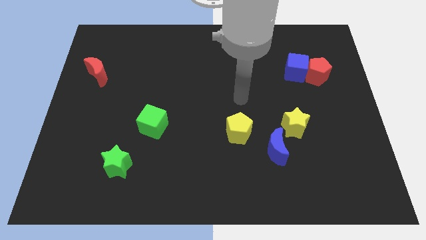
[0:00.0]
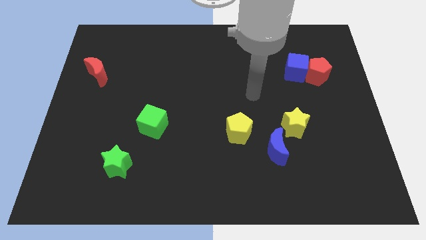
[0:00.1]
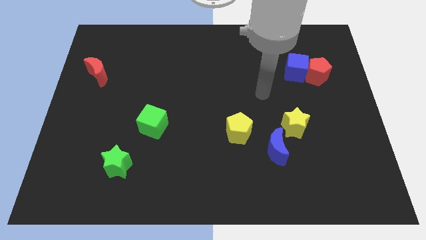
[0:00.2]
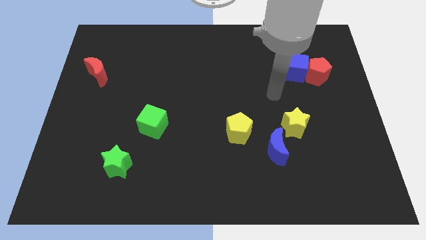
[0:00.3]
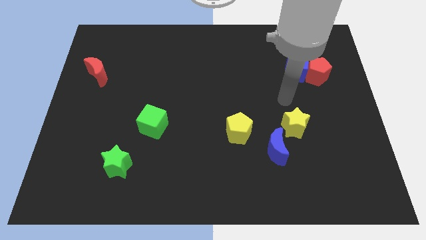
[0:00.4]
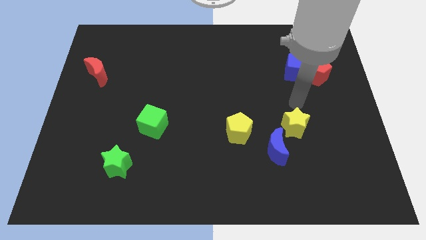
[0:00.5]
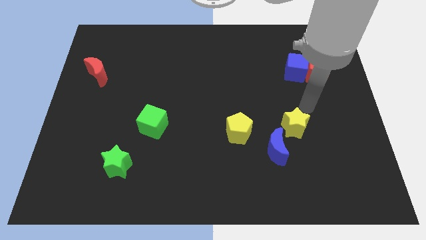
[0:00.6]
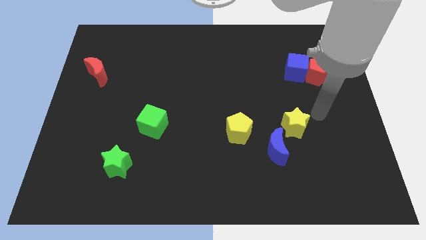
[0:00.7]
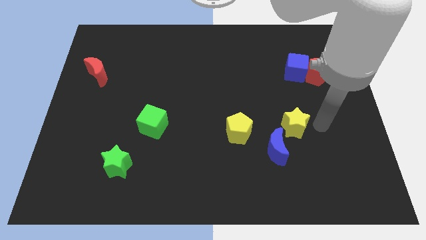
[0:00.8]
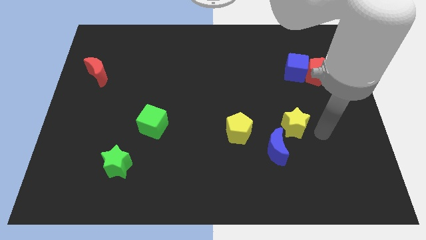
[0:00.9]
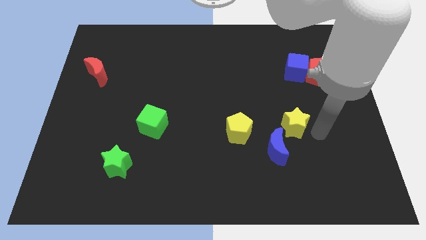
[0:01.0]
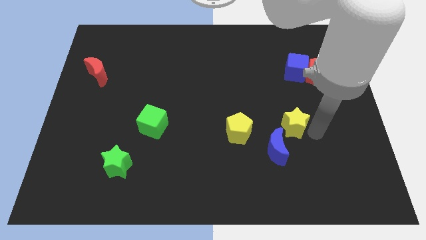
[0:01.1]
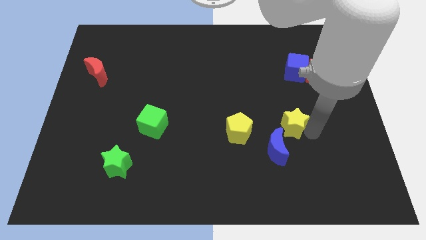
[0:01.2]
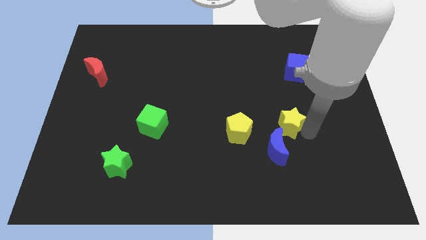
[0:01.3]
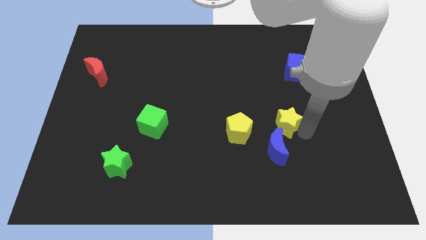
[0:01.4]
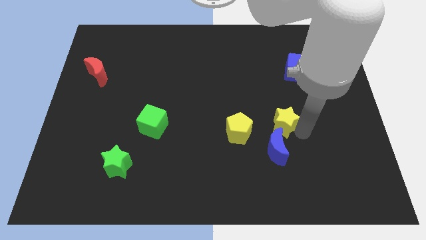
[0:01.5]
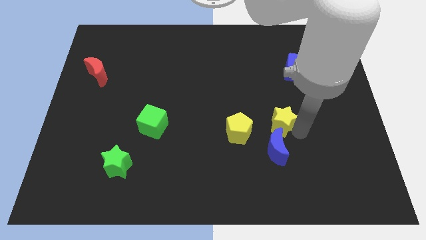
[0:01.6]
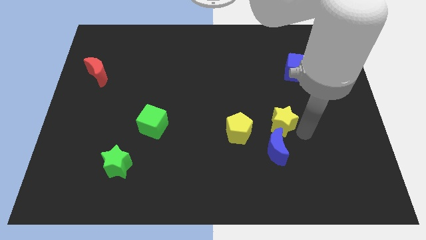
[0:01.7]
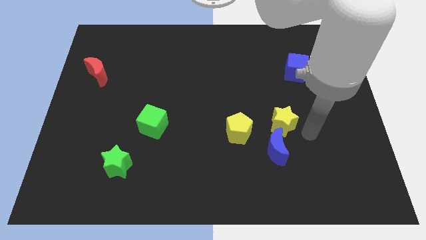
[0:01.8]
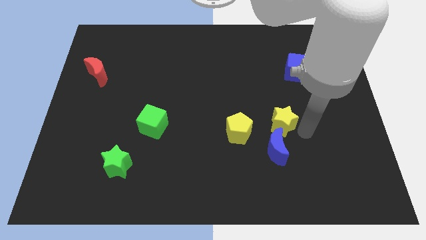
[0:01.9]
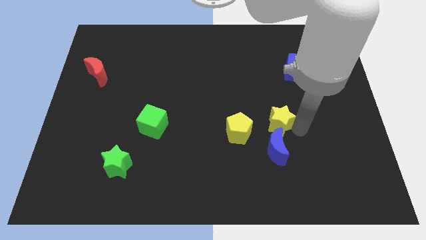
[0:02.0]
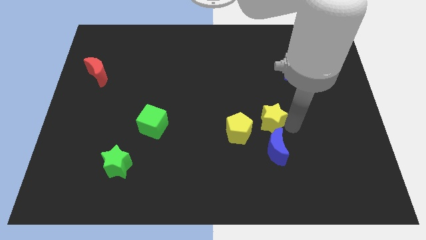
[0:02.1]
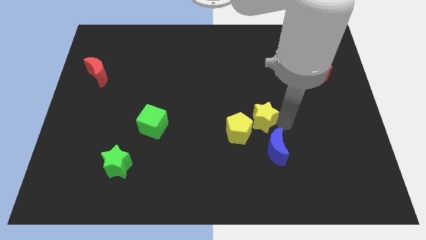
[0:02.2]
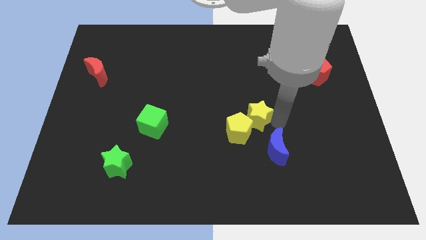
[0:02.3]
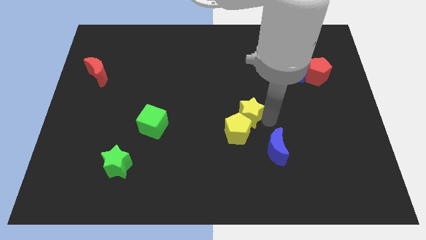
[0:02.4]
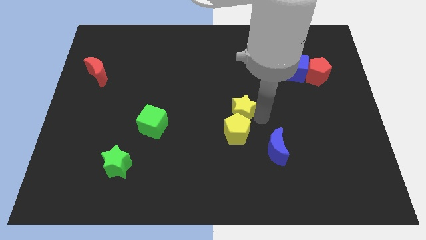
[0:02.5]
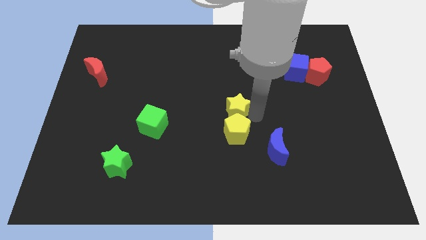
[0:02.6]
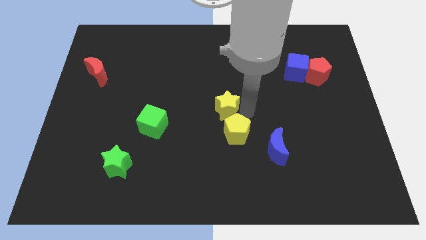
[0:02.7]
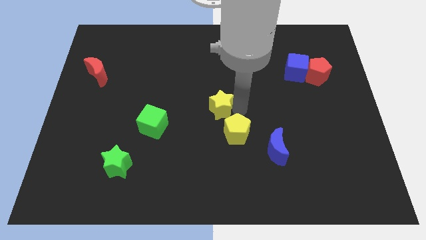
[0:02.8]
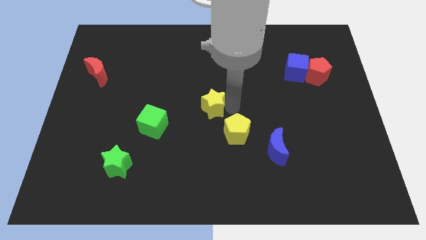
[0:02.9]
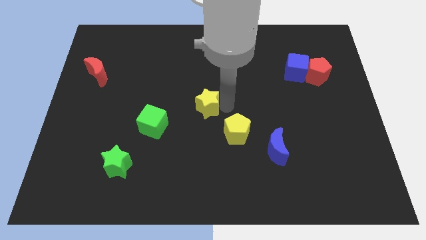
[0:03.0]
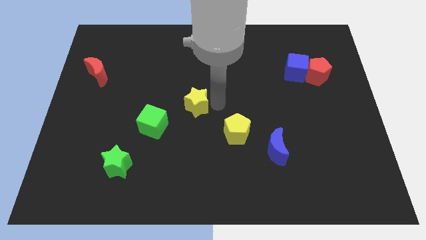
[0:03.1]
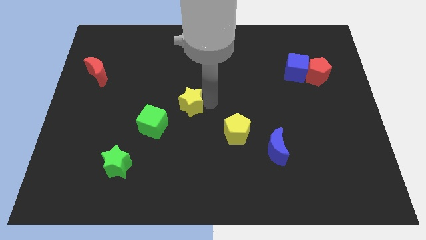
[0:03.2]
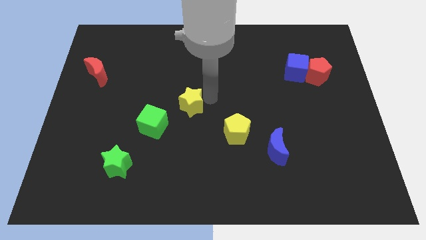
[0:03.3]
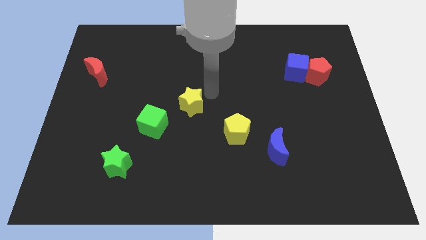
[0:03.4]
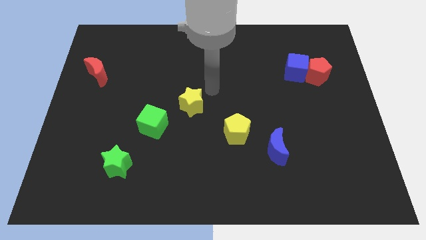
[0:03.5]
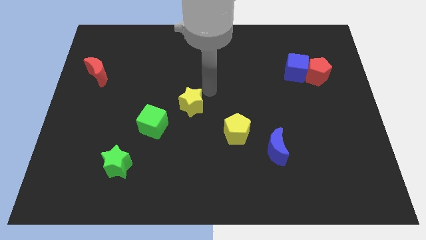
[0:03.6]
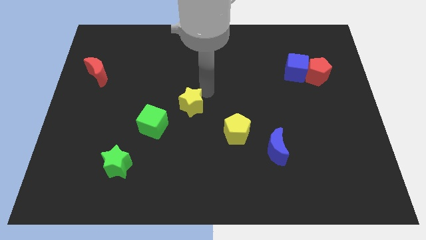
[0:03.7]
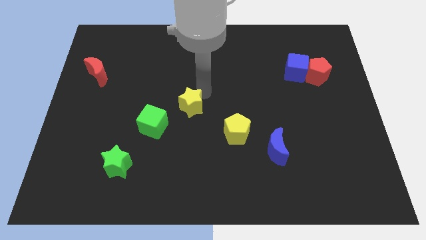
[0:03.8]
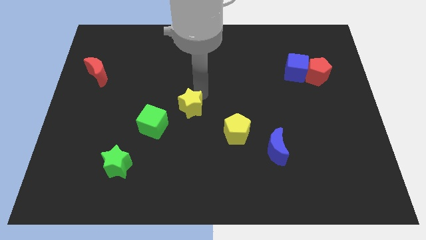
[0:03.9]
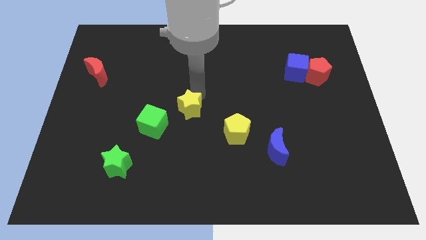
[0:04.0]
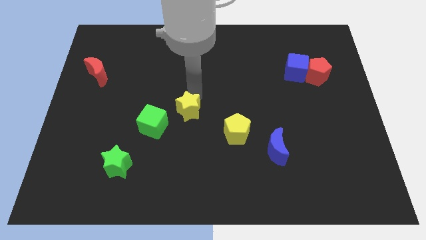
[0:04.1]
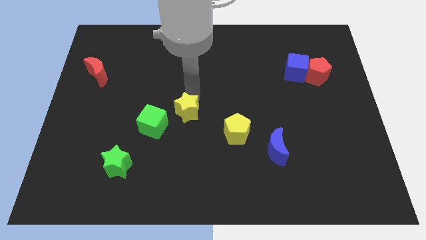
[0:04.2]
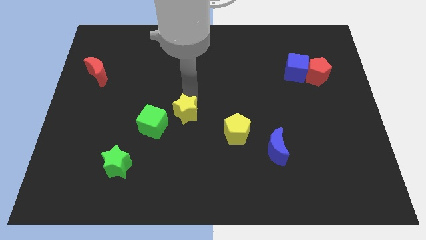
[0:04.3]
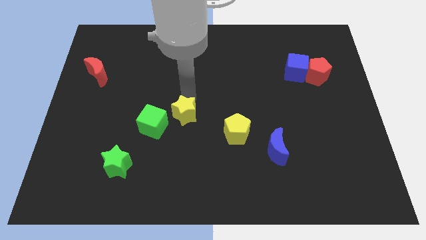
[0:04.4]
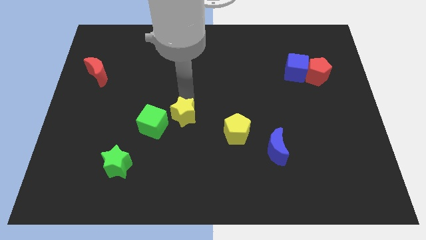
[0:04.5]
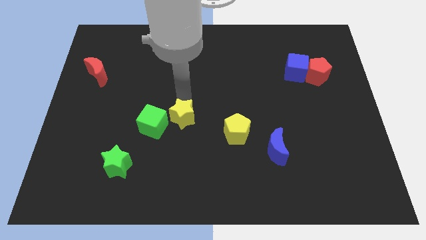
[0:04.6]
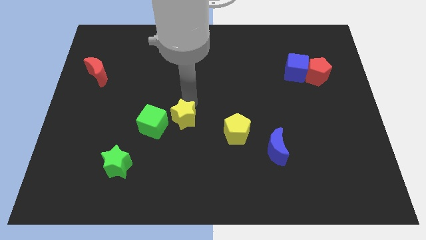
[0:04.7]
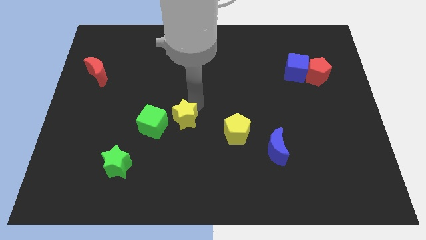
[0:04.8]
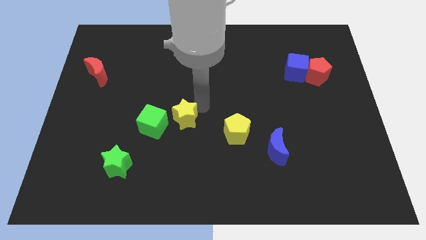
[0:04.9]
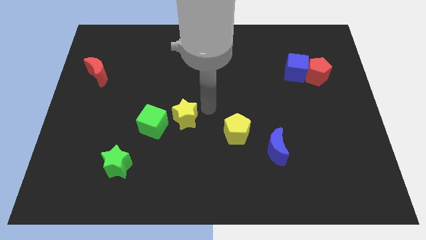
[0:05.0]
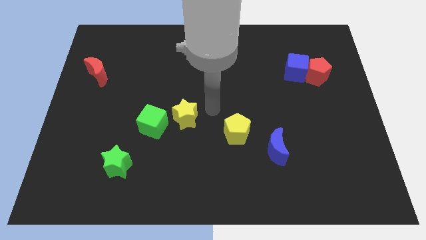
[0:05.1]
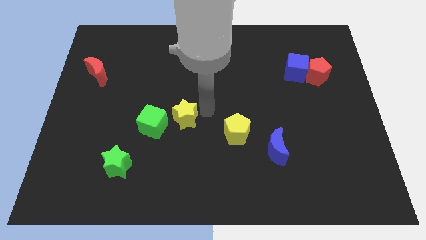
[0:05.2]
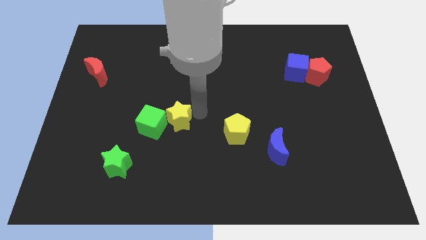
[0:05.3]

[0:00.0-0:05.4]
slide the yellow star to the green cube

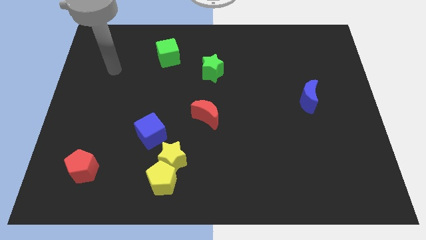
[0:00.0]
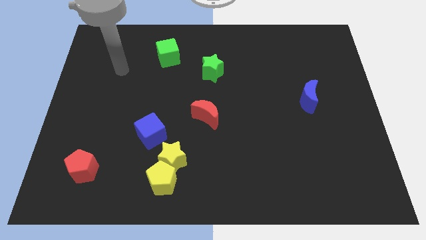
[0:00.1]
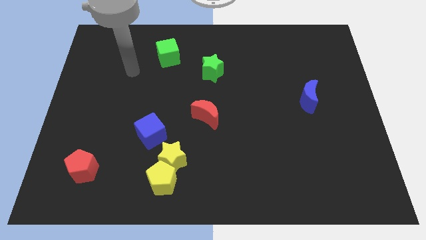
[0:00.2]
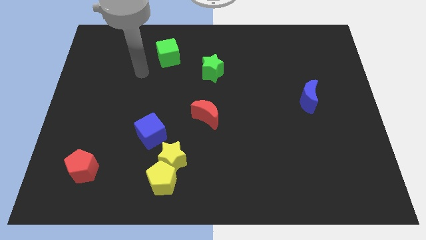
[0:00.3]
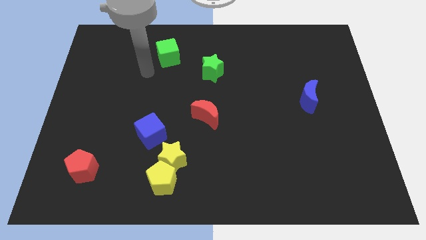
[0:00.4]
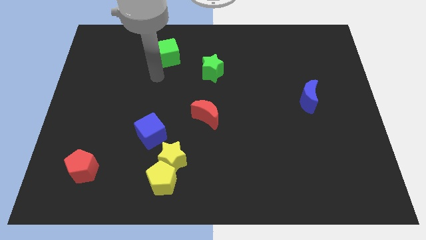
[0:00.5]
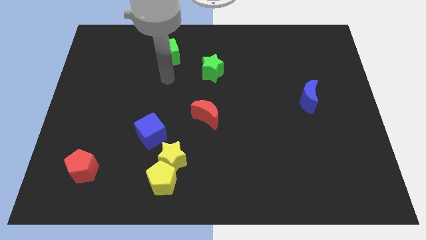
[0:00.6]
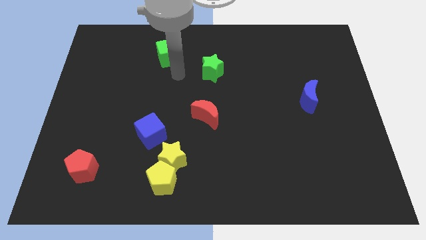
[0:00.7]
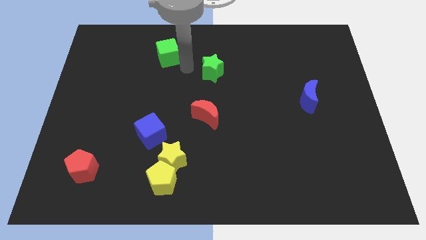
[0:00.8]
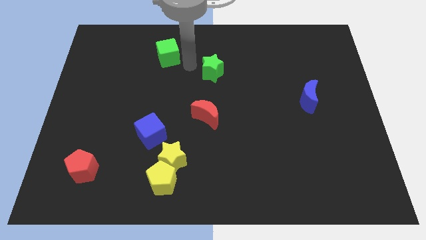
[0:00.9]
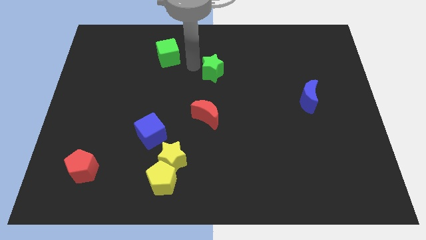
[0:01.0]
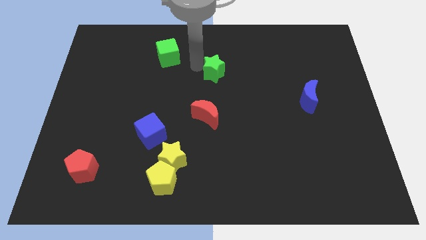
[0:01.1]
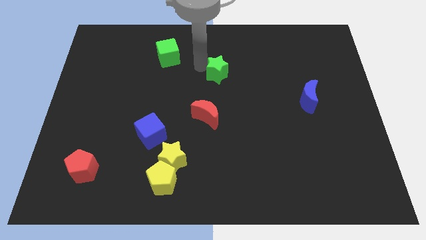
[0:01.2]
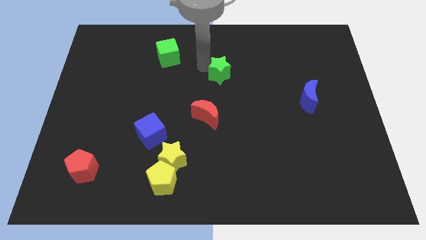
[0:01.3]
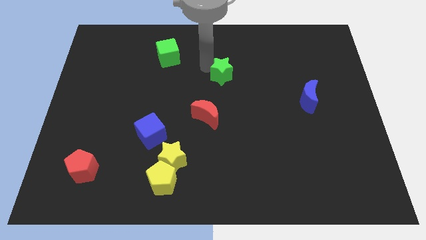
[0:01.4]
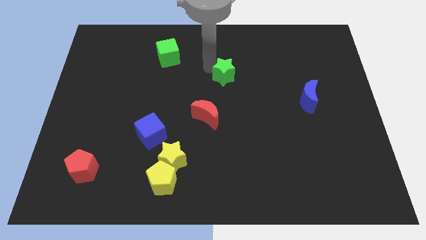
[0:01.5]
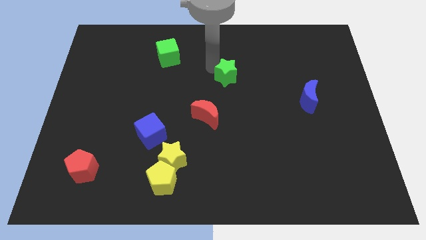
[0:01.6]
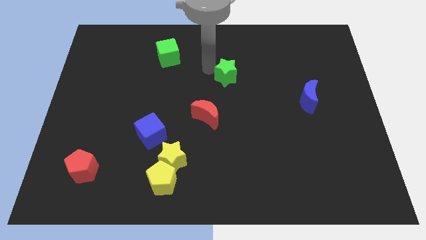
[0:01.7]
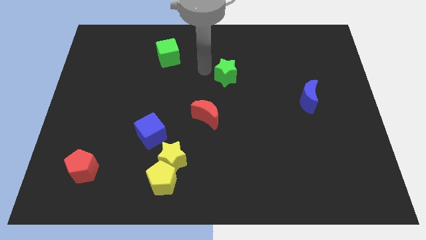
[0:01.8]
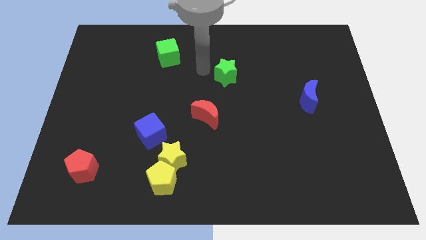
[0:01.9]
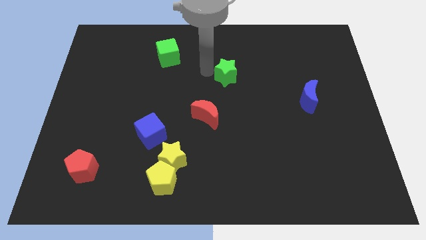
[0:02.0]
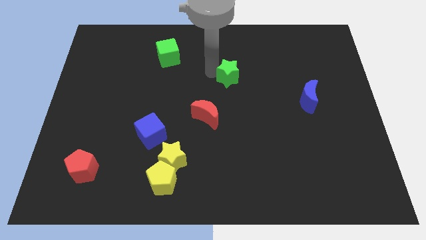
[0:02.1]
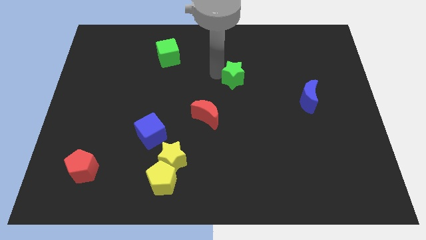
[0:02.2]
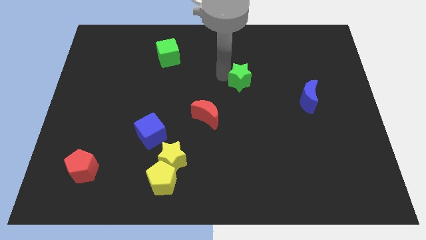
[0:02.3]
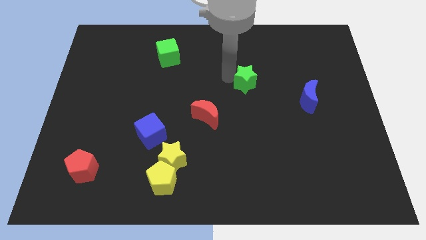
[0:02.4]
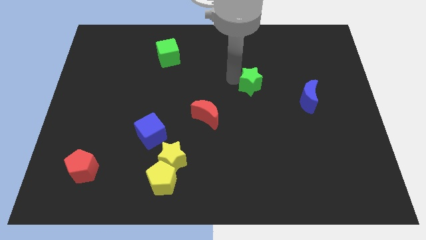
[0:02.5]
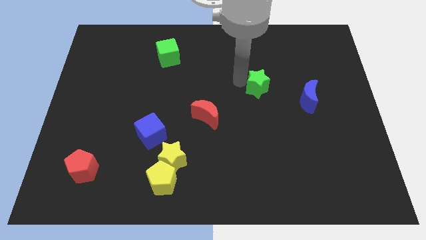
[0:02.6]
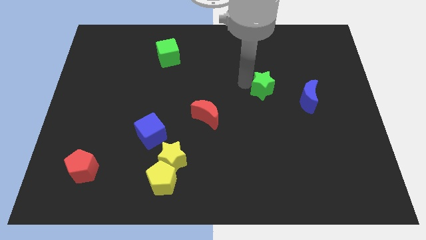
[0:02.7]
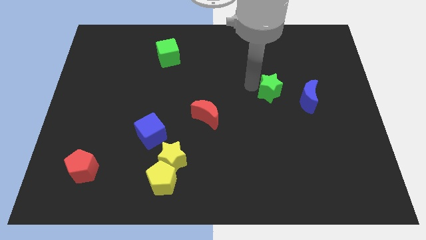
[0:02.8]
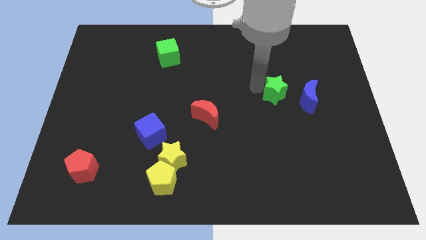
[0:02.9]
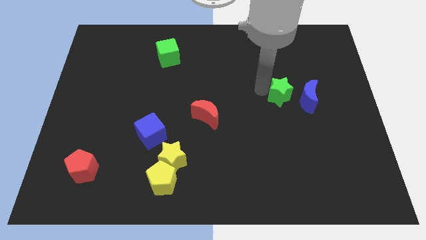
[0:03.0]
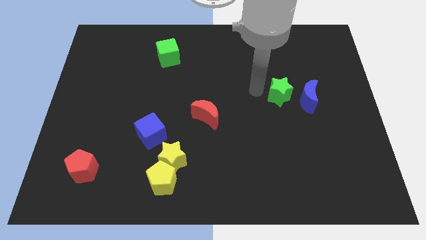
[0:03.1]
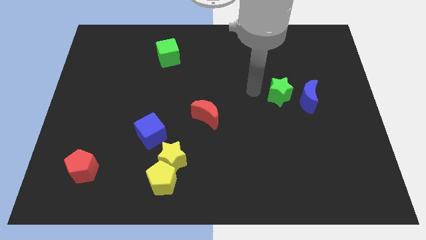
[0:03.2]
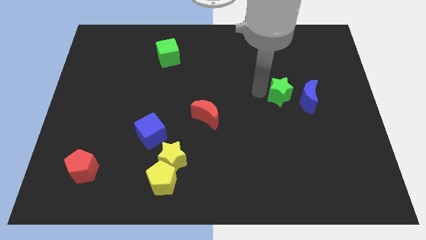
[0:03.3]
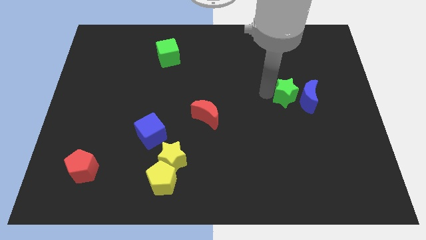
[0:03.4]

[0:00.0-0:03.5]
slide the green star to the blue moon
